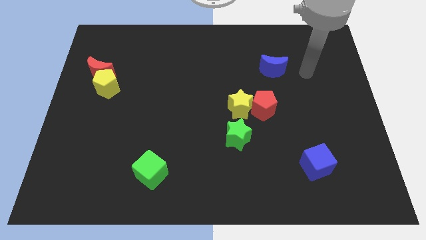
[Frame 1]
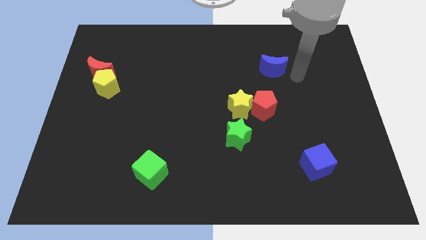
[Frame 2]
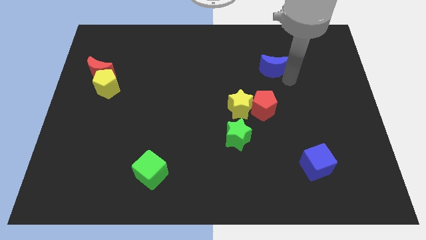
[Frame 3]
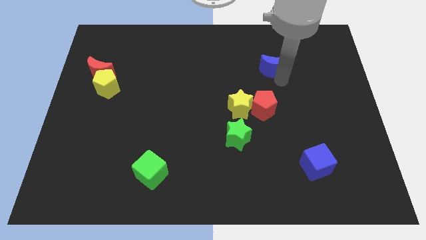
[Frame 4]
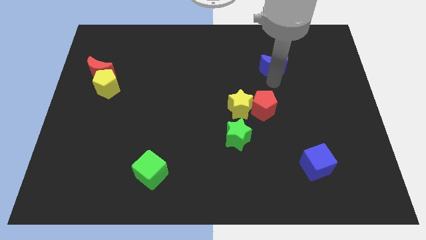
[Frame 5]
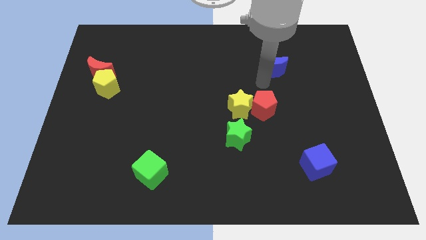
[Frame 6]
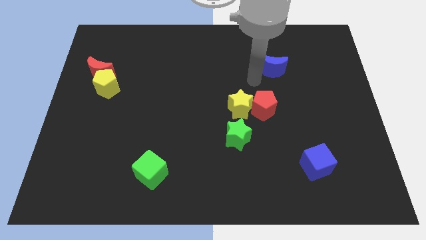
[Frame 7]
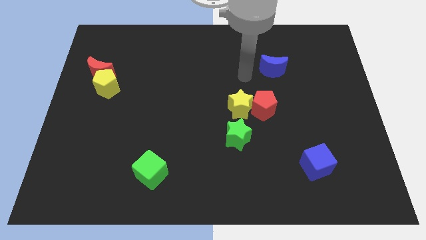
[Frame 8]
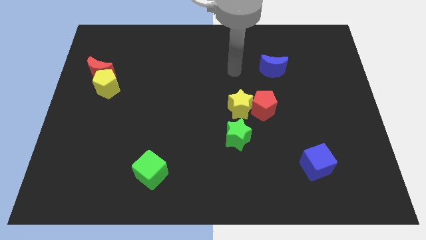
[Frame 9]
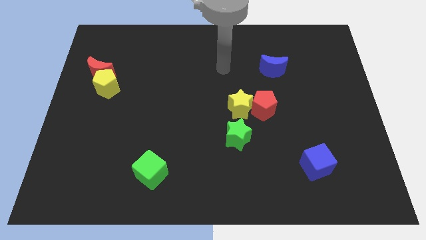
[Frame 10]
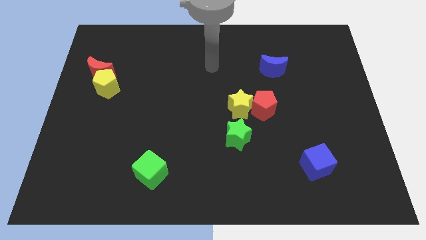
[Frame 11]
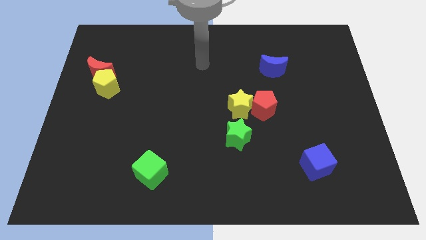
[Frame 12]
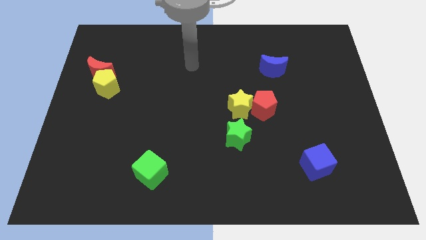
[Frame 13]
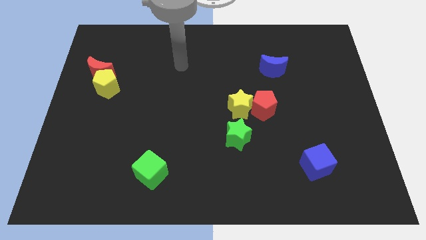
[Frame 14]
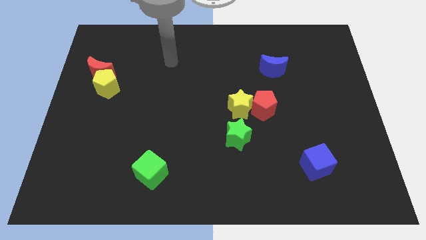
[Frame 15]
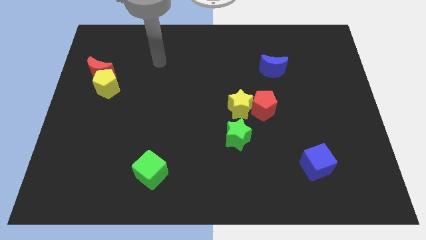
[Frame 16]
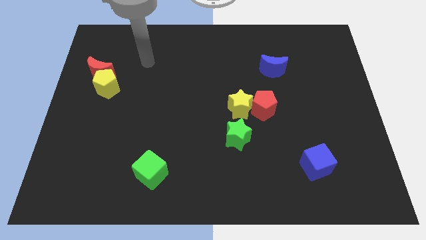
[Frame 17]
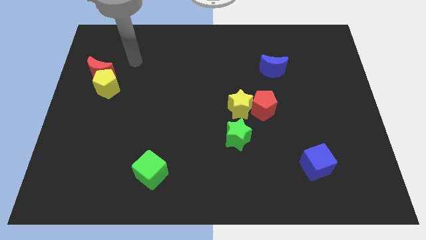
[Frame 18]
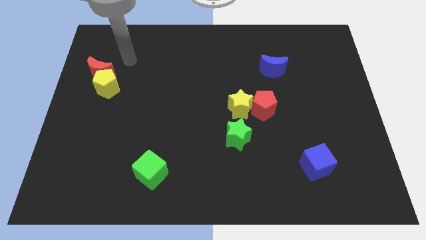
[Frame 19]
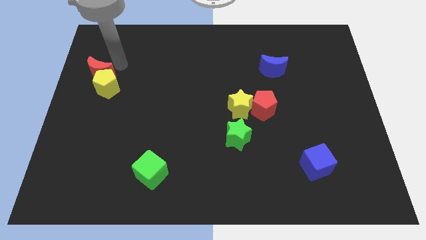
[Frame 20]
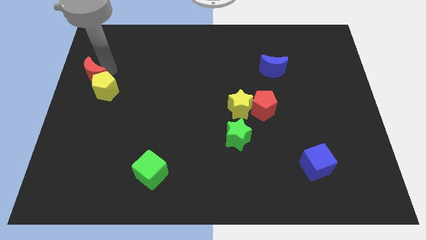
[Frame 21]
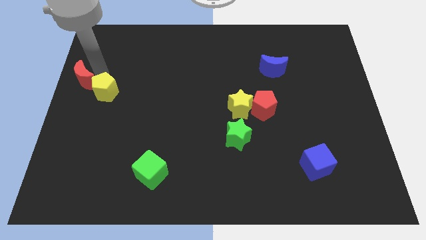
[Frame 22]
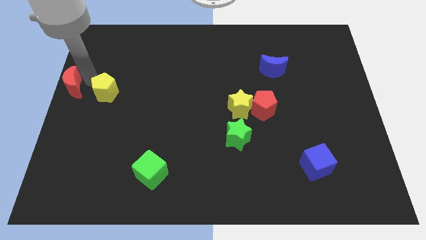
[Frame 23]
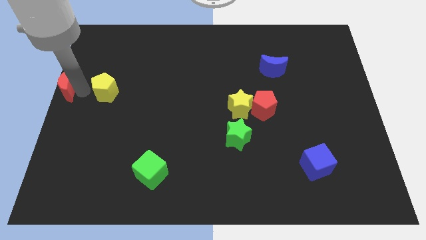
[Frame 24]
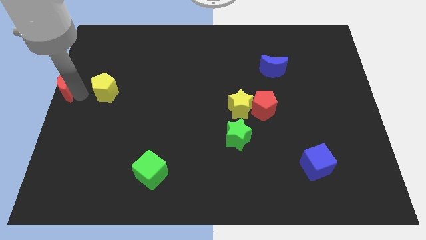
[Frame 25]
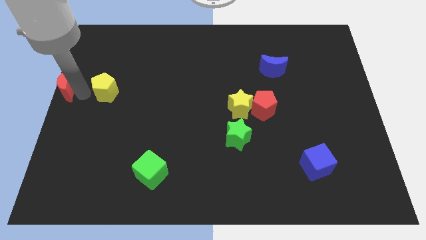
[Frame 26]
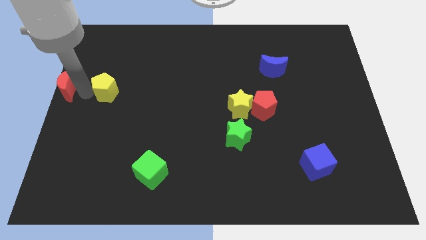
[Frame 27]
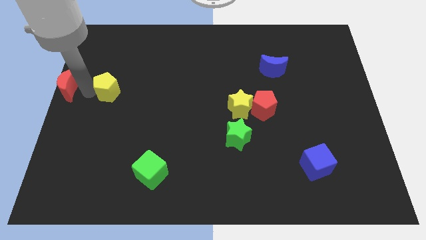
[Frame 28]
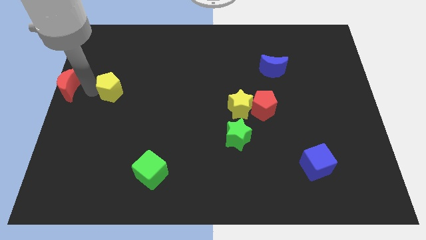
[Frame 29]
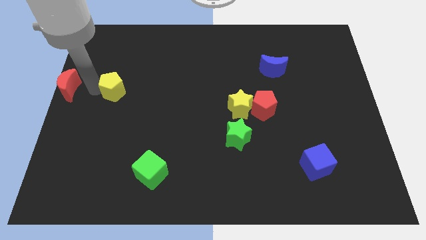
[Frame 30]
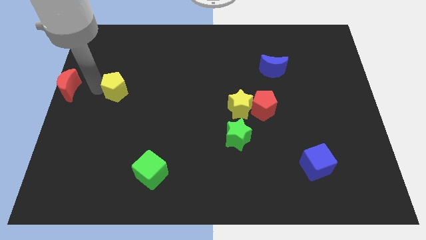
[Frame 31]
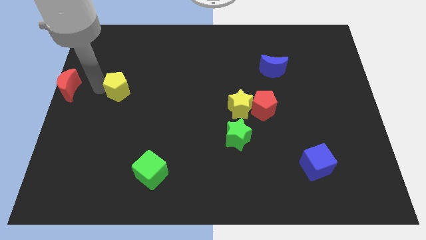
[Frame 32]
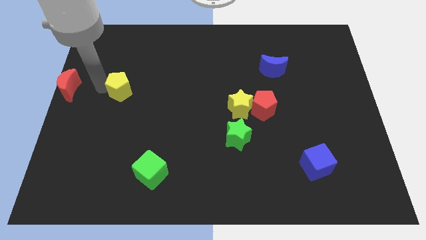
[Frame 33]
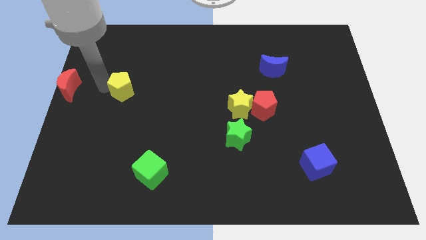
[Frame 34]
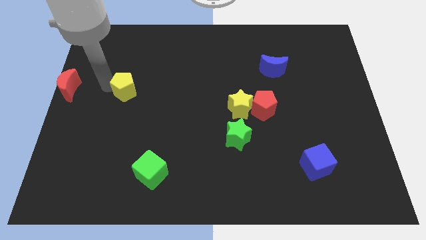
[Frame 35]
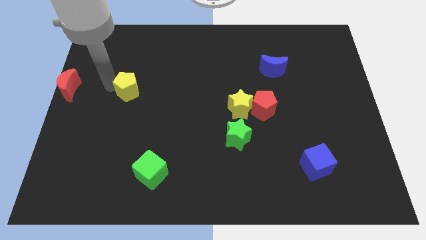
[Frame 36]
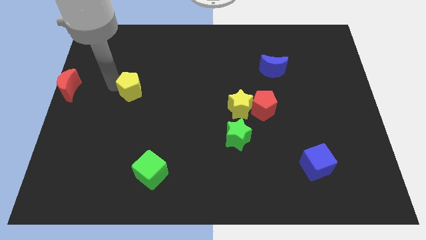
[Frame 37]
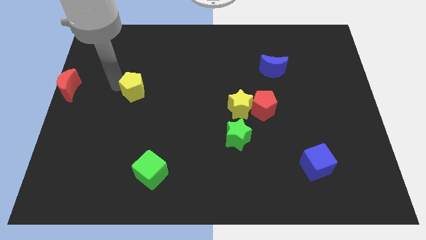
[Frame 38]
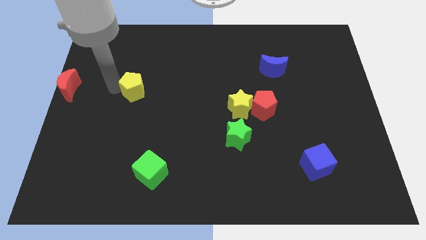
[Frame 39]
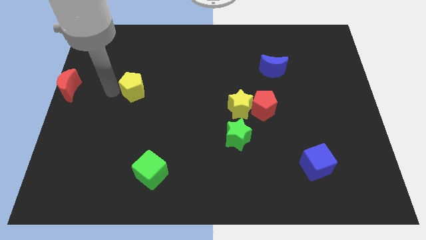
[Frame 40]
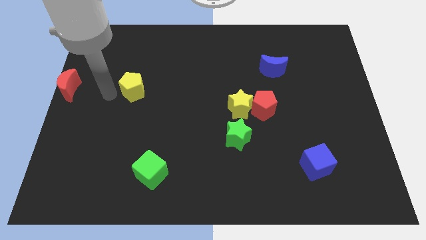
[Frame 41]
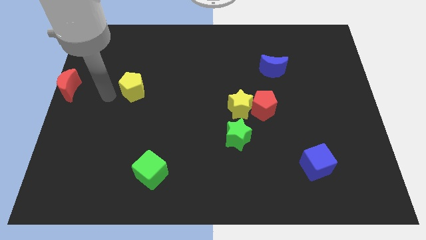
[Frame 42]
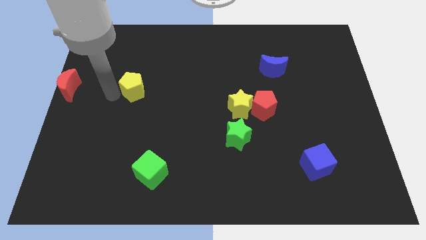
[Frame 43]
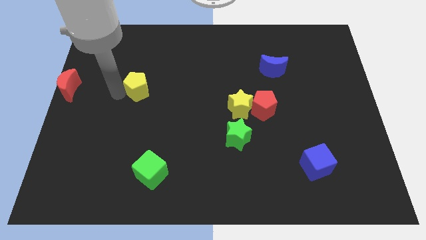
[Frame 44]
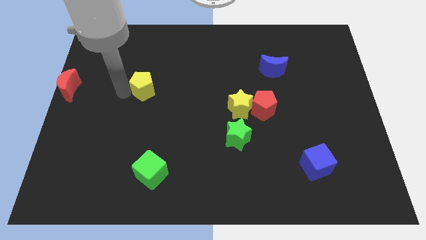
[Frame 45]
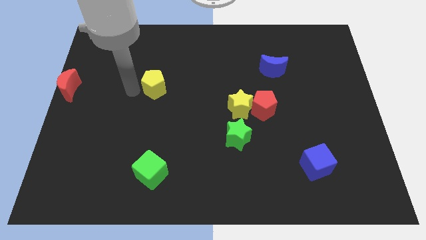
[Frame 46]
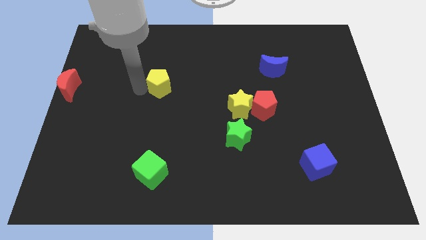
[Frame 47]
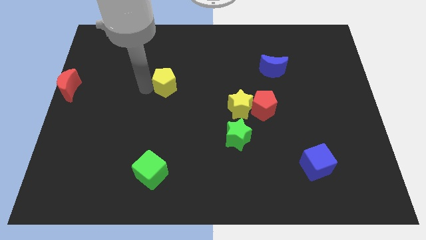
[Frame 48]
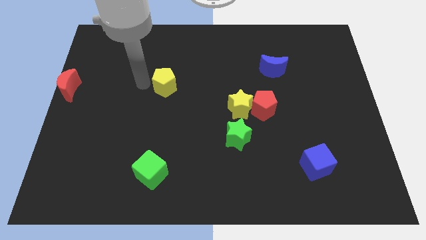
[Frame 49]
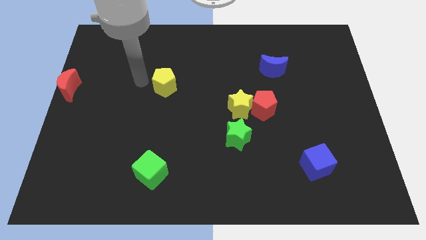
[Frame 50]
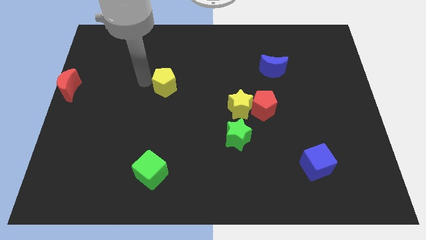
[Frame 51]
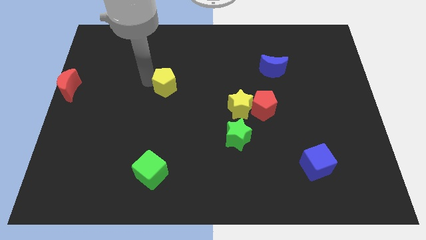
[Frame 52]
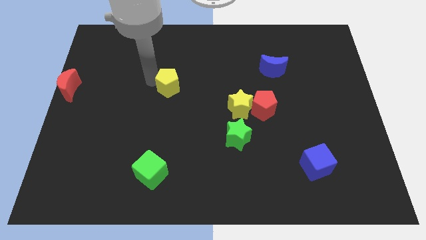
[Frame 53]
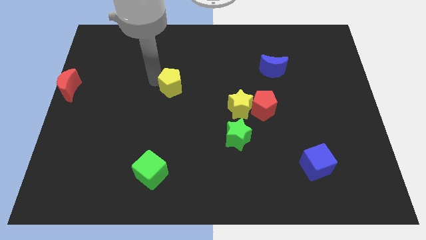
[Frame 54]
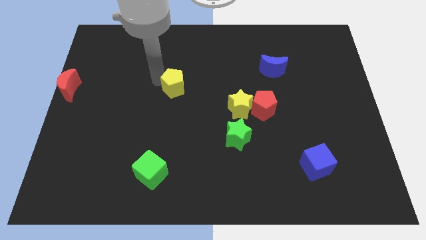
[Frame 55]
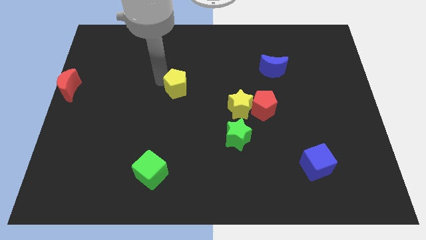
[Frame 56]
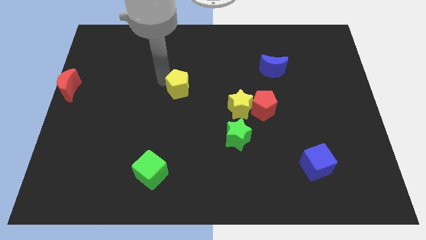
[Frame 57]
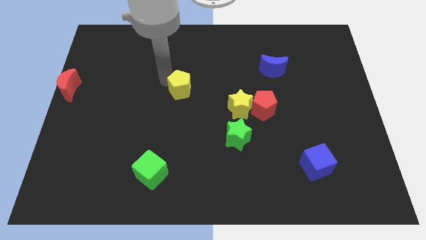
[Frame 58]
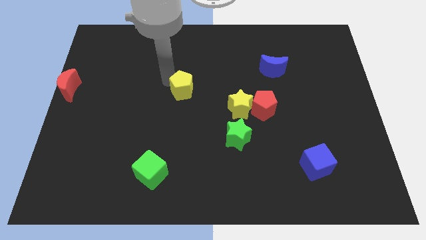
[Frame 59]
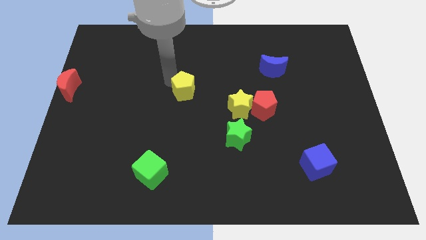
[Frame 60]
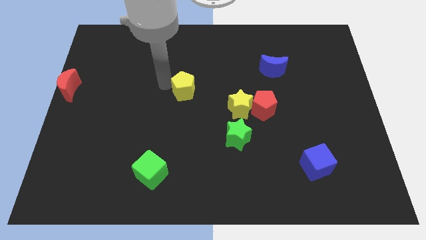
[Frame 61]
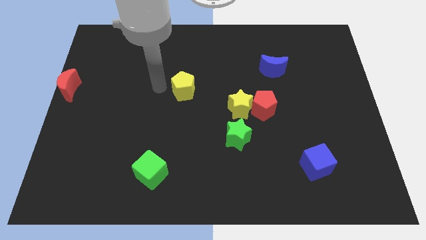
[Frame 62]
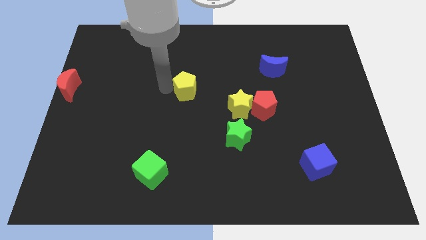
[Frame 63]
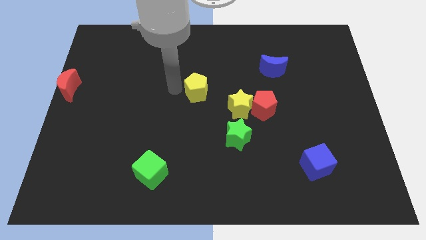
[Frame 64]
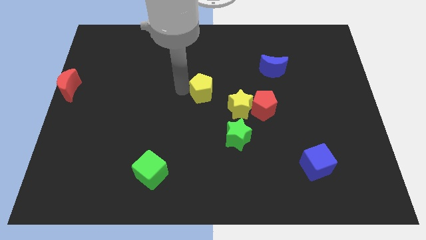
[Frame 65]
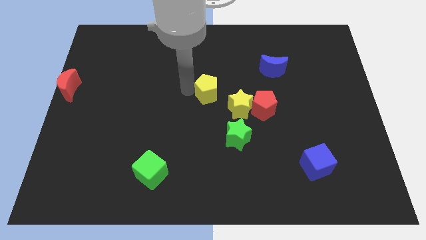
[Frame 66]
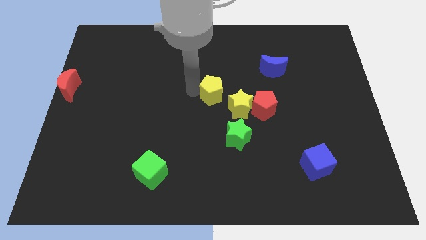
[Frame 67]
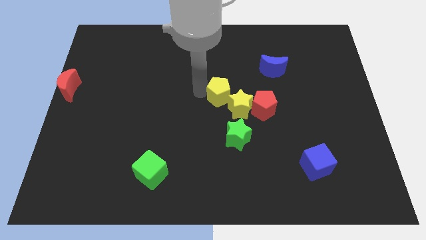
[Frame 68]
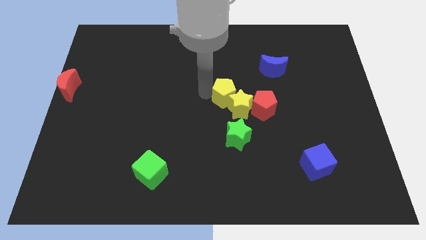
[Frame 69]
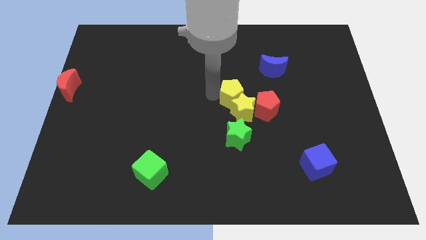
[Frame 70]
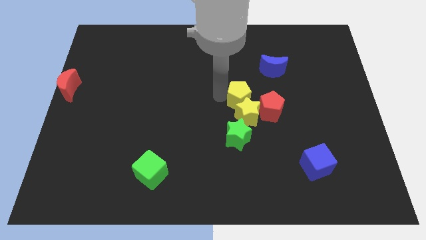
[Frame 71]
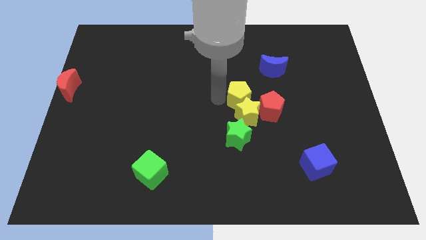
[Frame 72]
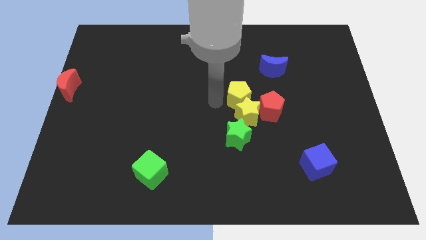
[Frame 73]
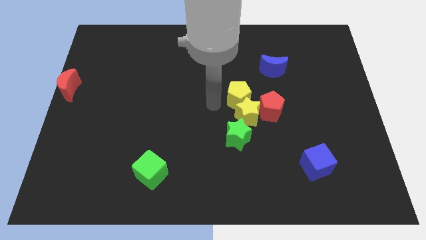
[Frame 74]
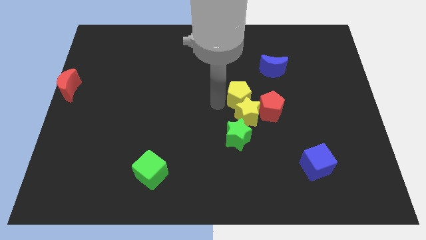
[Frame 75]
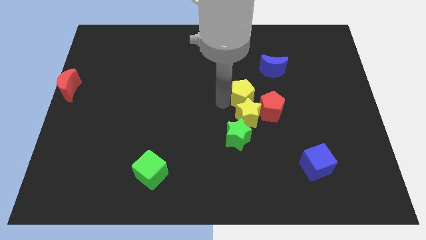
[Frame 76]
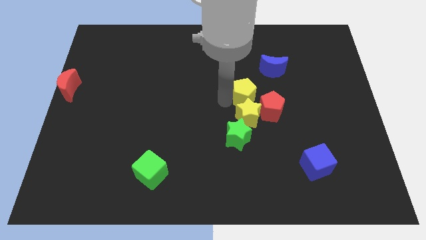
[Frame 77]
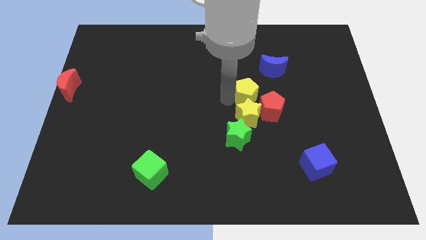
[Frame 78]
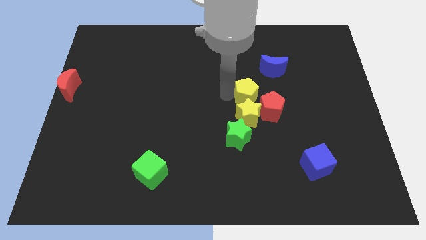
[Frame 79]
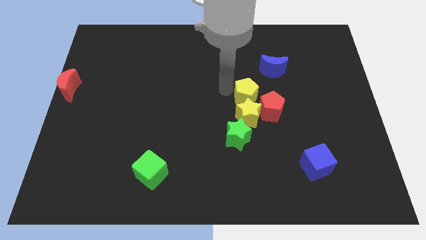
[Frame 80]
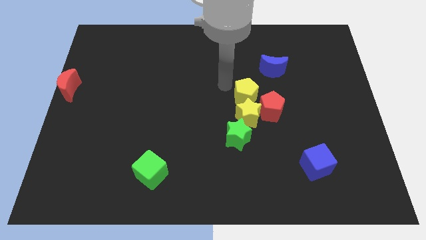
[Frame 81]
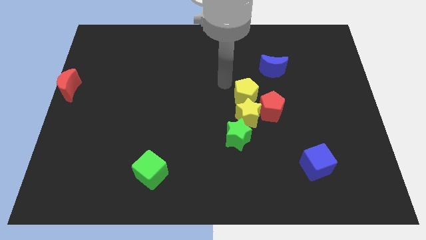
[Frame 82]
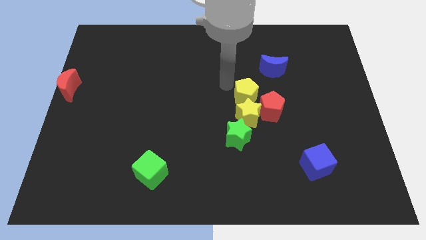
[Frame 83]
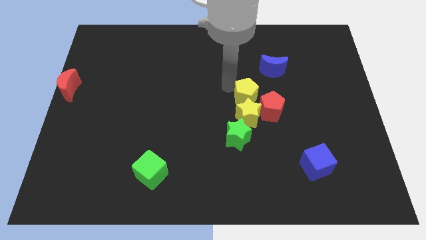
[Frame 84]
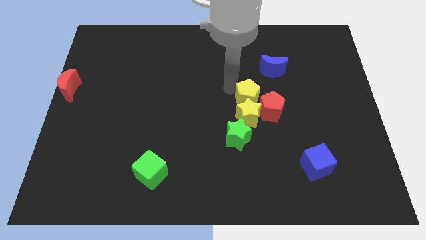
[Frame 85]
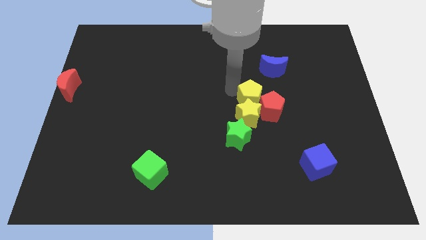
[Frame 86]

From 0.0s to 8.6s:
slide the yellow pentagon to the red pentagon
